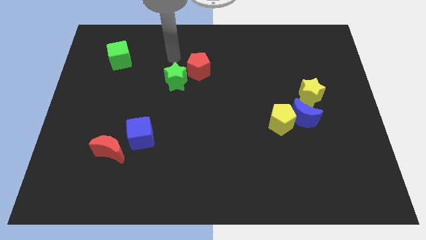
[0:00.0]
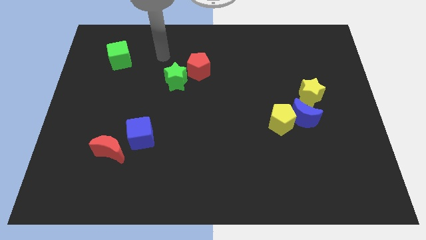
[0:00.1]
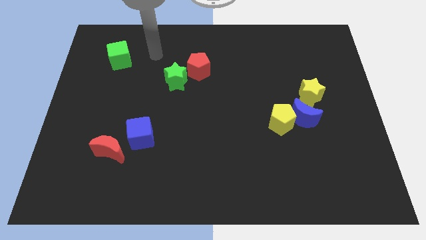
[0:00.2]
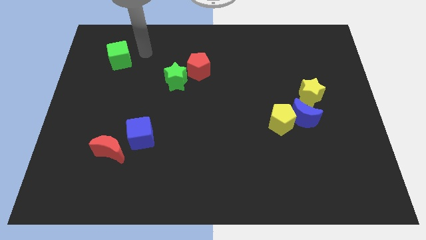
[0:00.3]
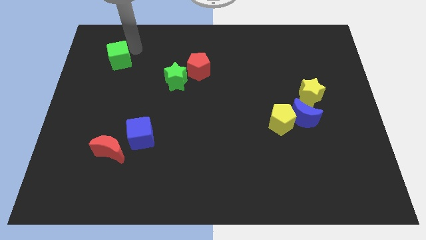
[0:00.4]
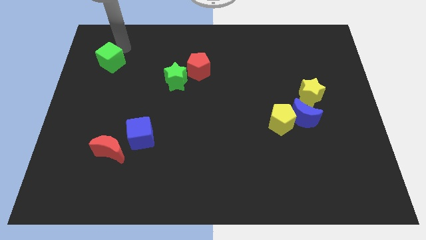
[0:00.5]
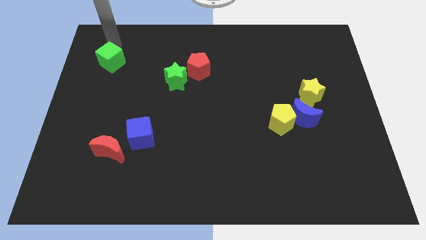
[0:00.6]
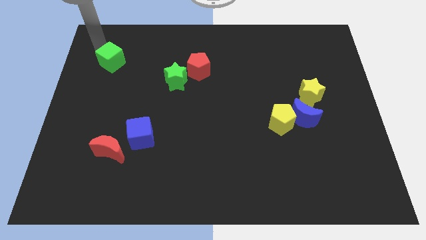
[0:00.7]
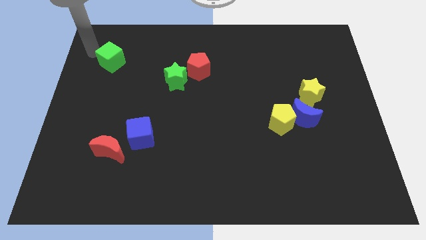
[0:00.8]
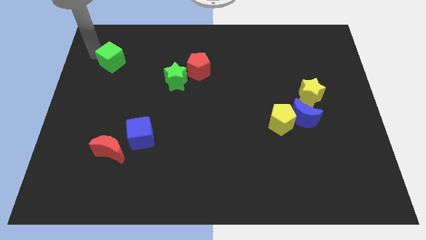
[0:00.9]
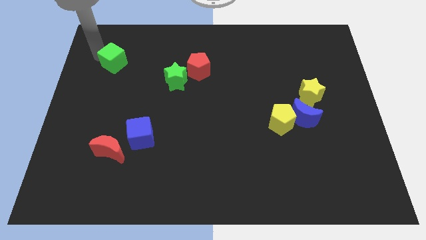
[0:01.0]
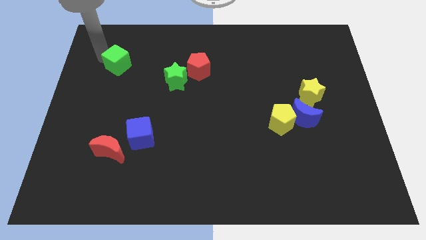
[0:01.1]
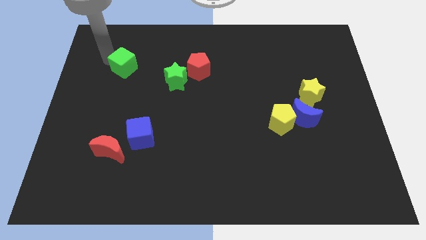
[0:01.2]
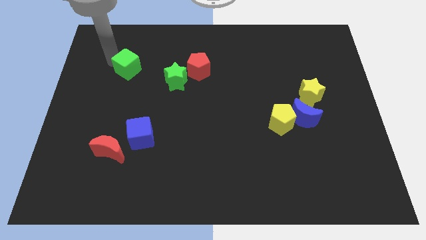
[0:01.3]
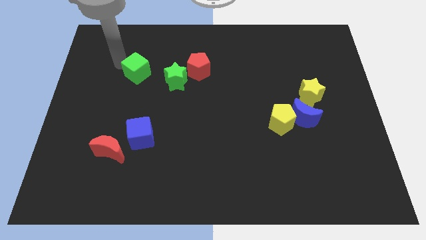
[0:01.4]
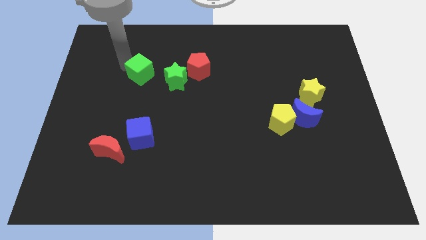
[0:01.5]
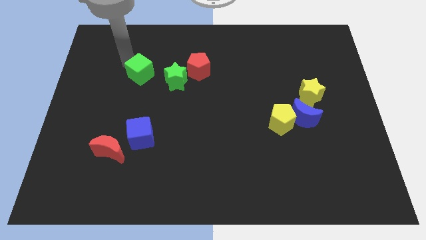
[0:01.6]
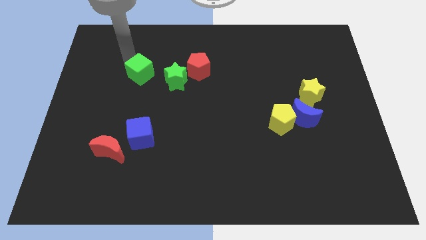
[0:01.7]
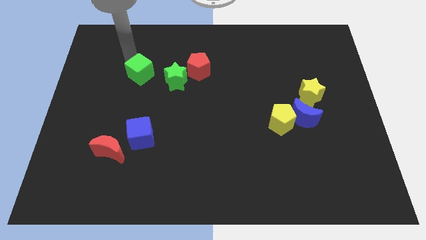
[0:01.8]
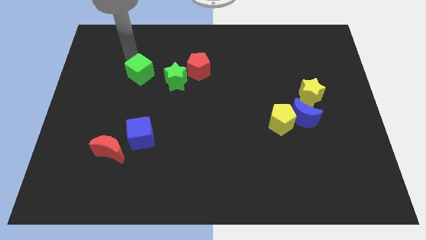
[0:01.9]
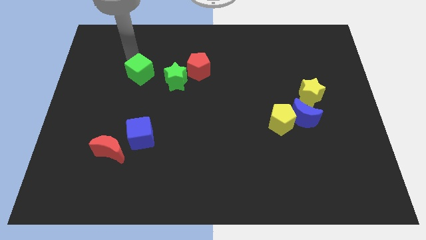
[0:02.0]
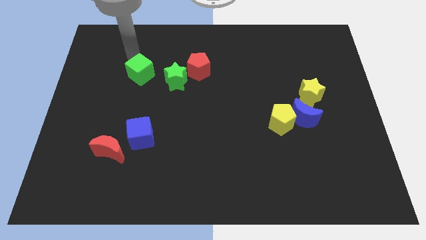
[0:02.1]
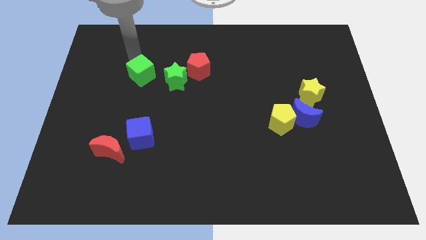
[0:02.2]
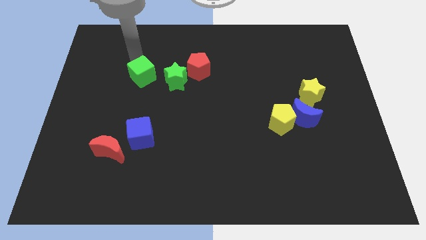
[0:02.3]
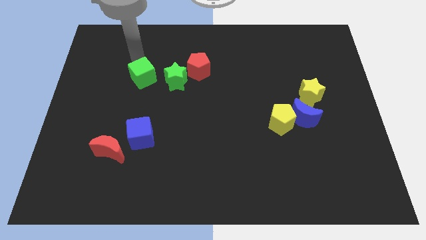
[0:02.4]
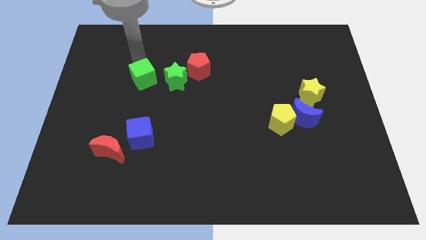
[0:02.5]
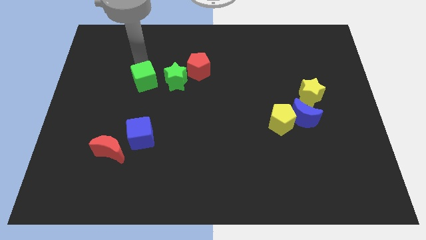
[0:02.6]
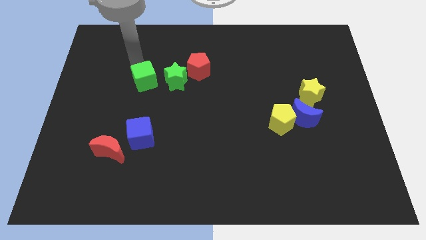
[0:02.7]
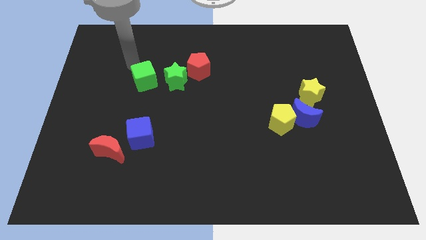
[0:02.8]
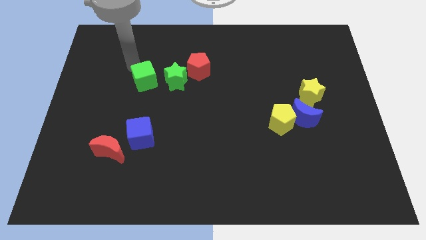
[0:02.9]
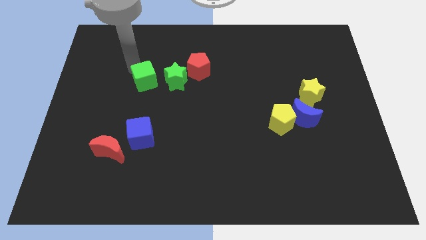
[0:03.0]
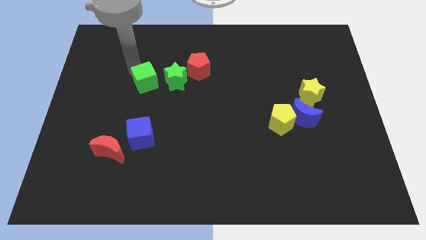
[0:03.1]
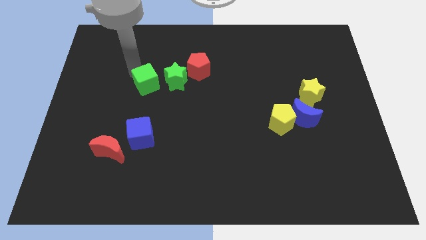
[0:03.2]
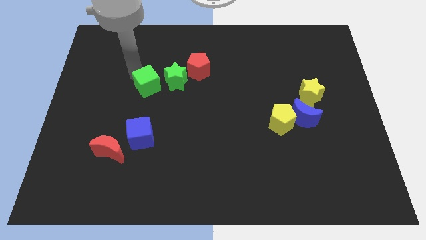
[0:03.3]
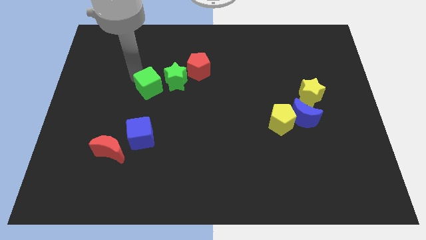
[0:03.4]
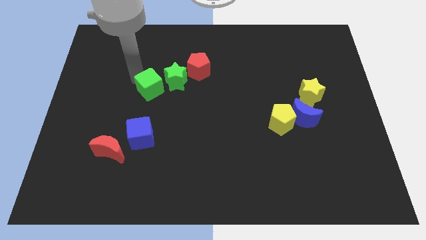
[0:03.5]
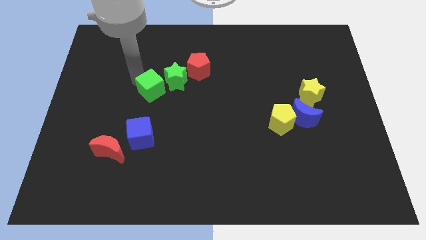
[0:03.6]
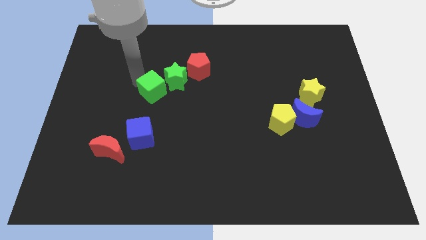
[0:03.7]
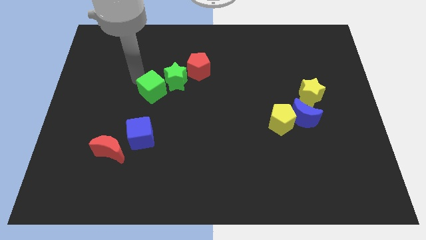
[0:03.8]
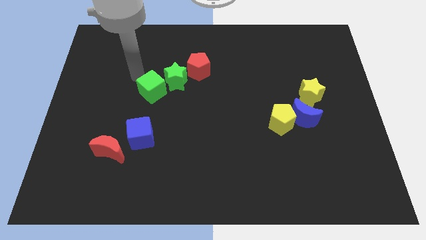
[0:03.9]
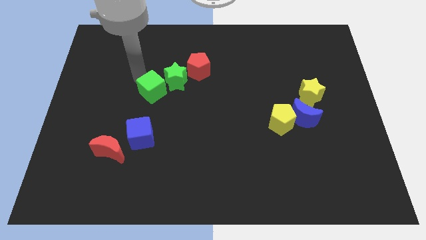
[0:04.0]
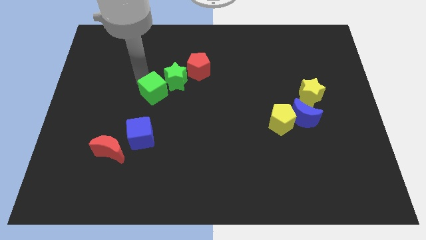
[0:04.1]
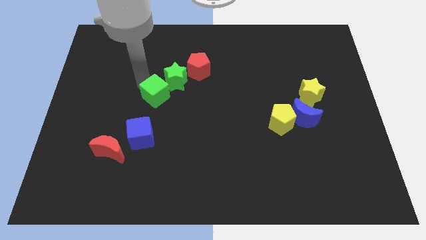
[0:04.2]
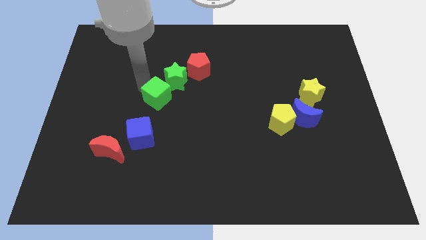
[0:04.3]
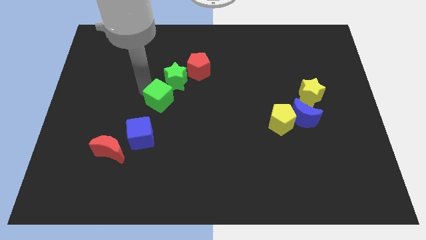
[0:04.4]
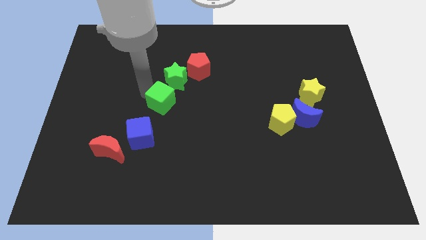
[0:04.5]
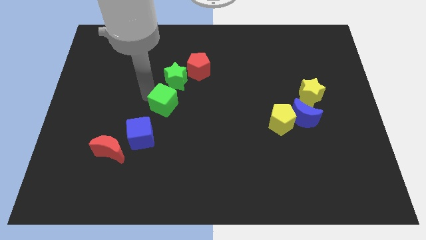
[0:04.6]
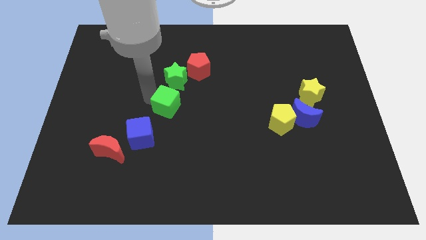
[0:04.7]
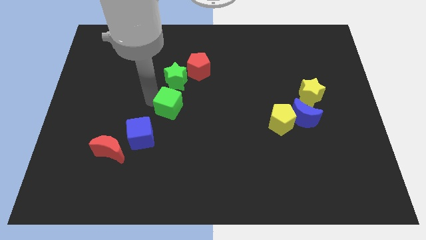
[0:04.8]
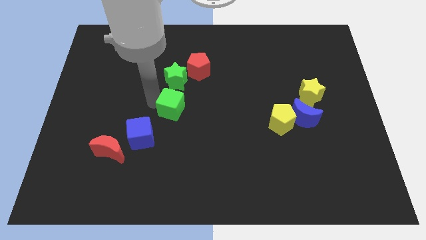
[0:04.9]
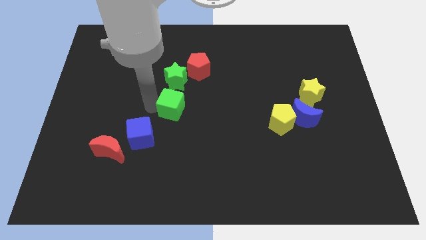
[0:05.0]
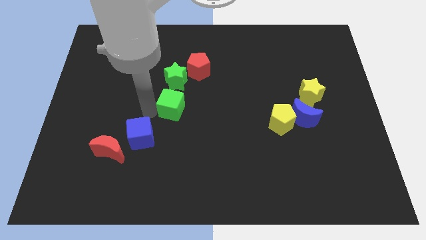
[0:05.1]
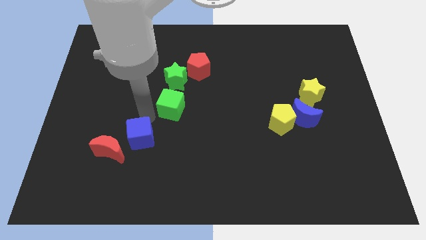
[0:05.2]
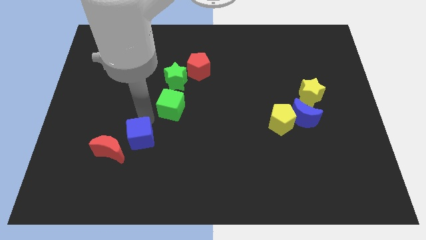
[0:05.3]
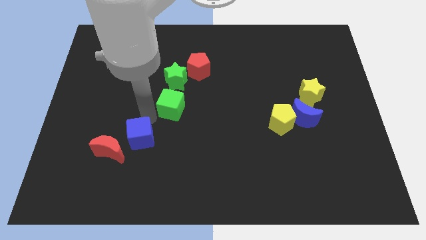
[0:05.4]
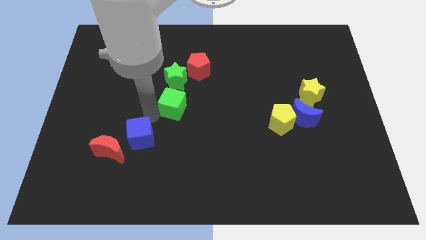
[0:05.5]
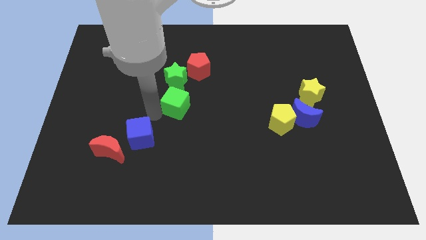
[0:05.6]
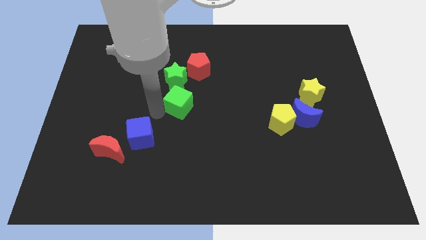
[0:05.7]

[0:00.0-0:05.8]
slide the green cube to the bottom right side of the green star

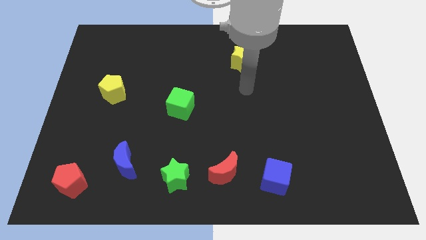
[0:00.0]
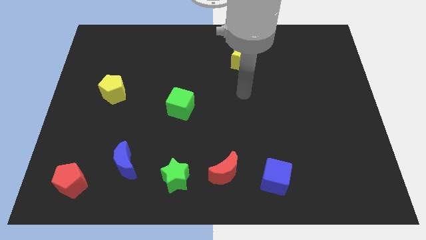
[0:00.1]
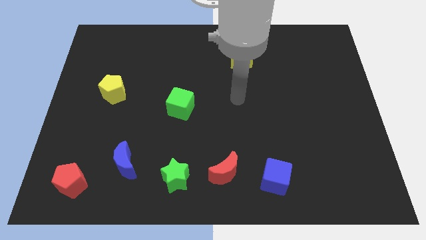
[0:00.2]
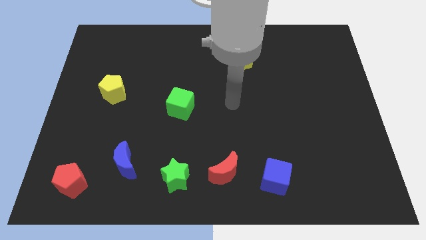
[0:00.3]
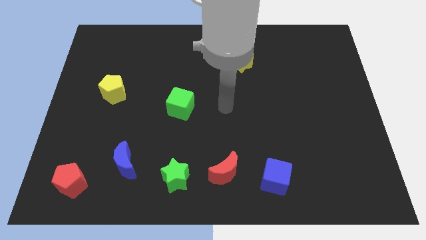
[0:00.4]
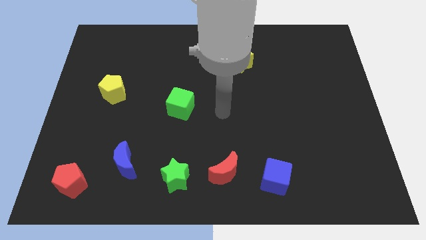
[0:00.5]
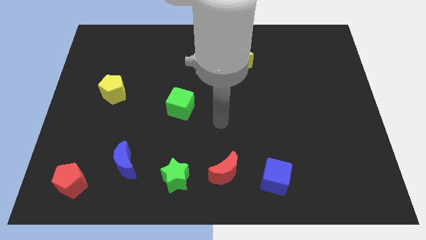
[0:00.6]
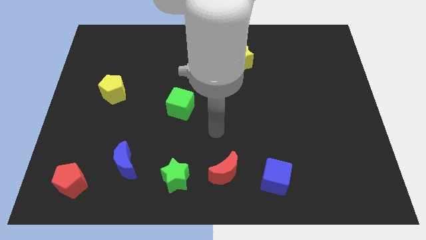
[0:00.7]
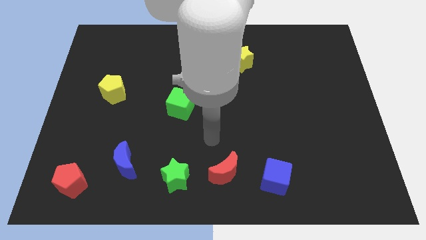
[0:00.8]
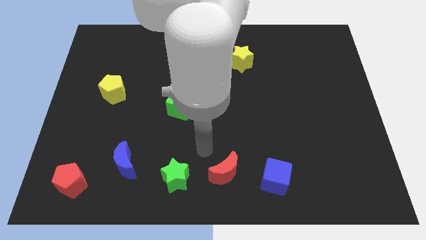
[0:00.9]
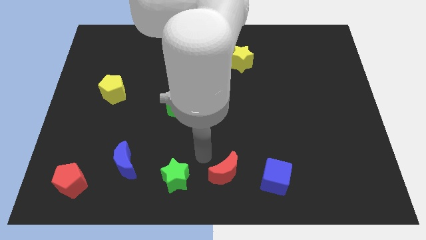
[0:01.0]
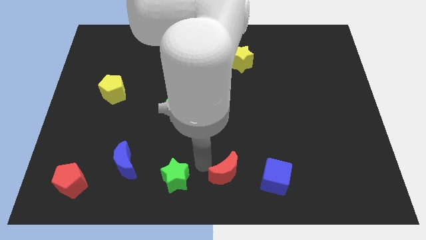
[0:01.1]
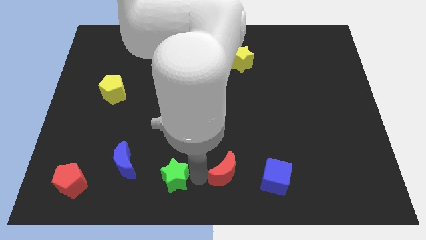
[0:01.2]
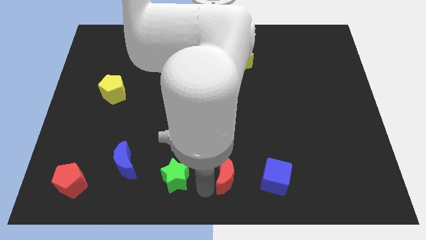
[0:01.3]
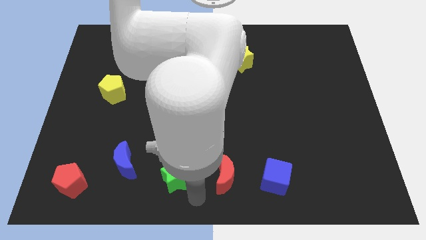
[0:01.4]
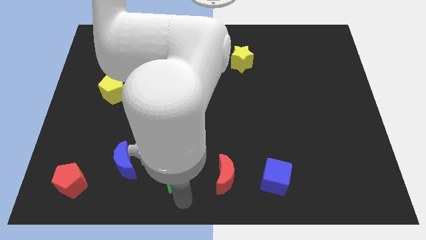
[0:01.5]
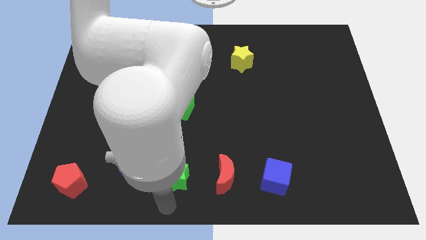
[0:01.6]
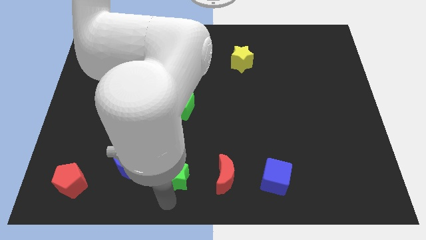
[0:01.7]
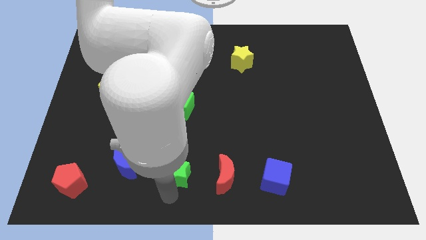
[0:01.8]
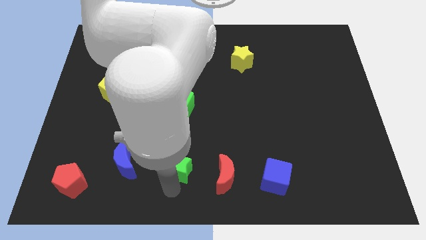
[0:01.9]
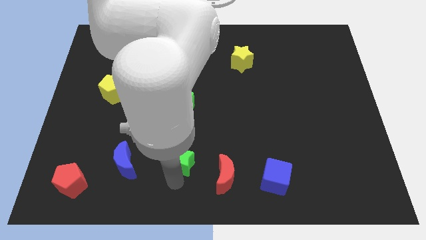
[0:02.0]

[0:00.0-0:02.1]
push the green star below the green cube

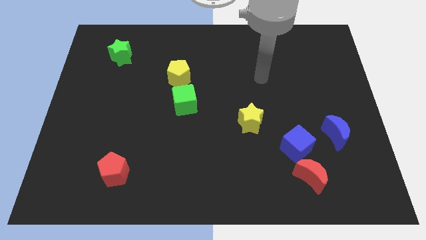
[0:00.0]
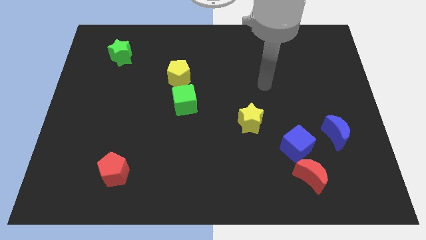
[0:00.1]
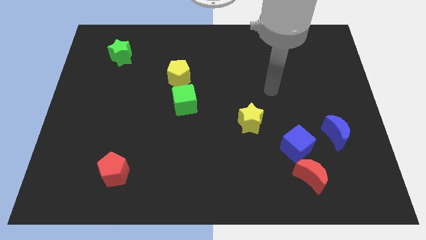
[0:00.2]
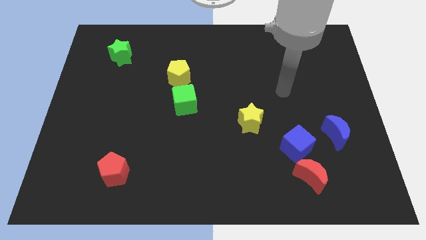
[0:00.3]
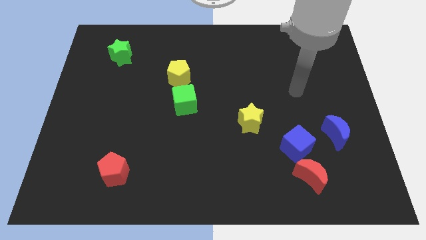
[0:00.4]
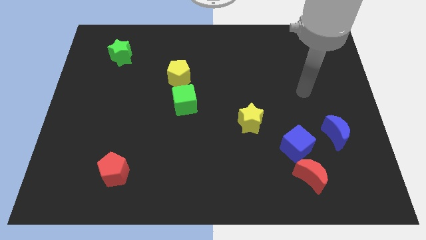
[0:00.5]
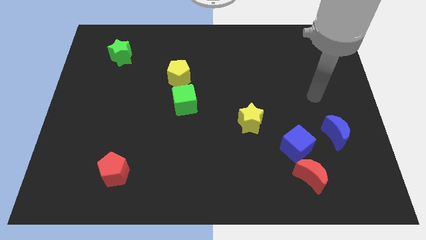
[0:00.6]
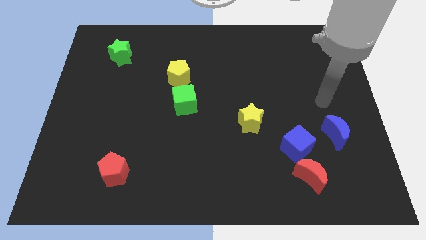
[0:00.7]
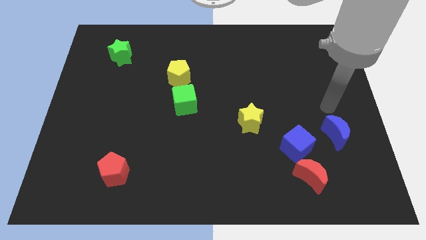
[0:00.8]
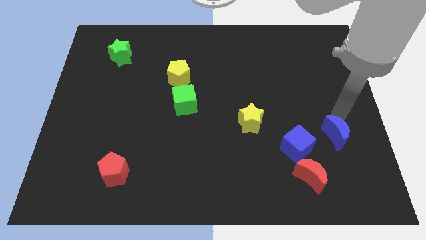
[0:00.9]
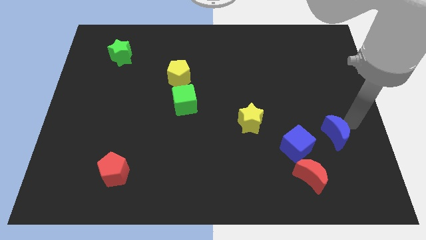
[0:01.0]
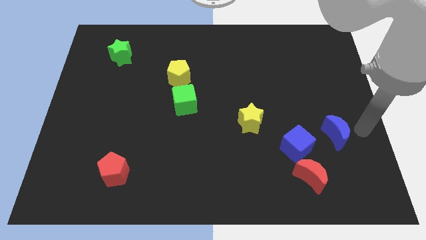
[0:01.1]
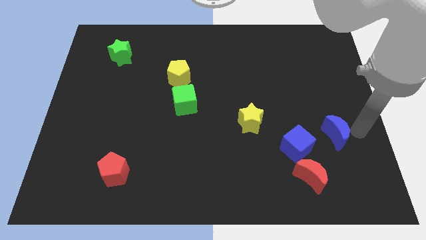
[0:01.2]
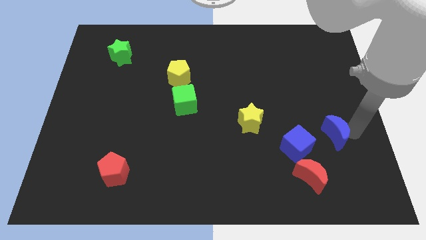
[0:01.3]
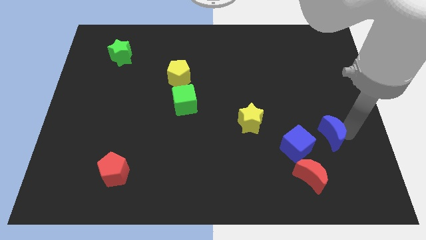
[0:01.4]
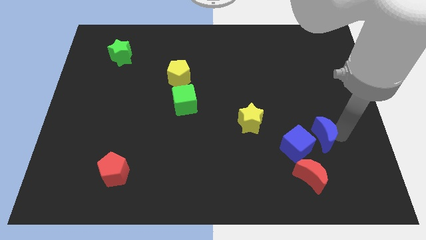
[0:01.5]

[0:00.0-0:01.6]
slide the blue moon above the red moon
